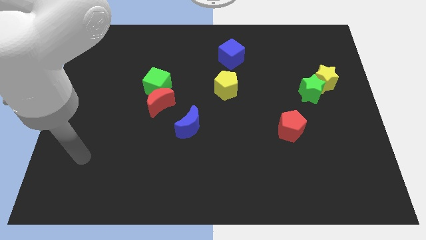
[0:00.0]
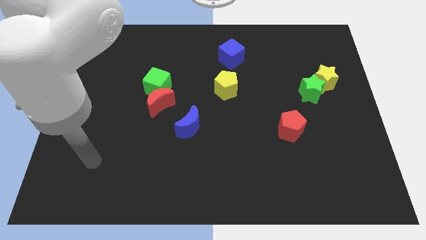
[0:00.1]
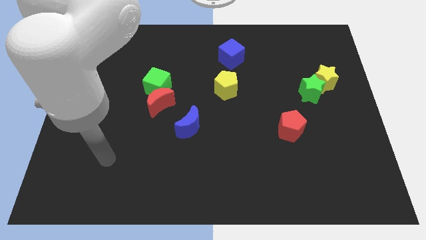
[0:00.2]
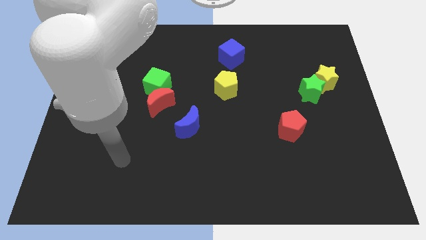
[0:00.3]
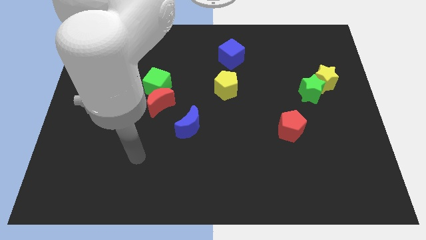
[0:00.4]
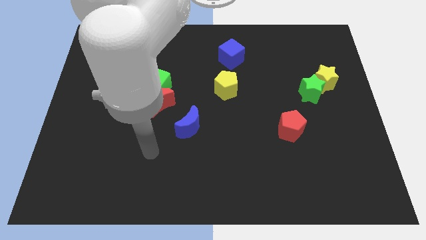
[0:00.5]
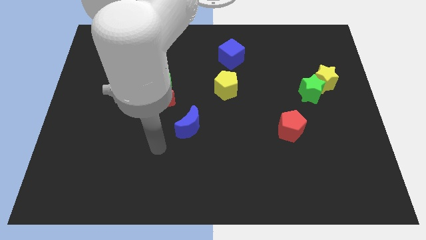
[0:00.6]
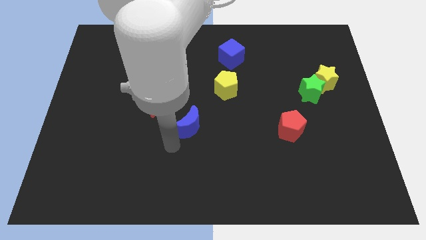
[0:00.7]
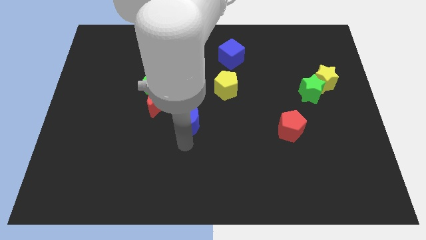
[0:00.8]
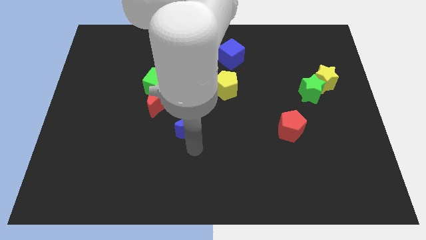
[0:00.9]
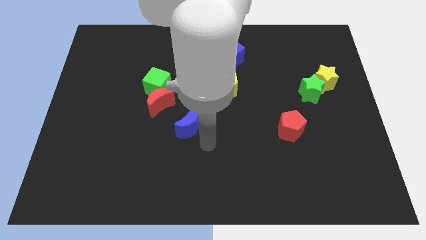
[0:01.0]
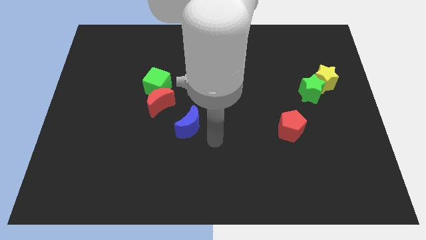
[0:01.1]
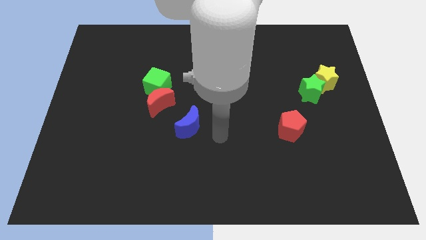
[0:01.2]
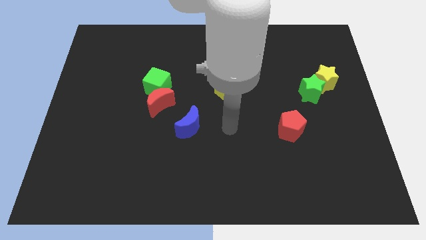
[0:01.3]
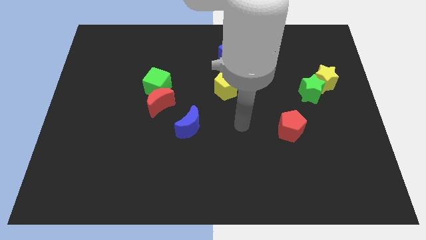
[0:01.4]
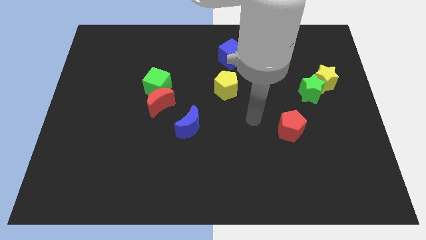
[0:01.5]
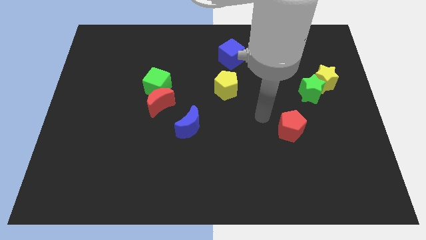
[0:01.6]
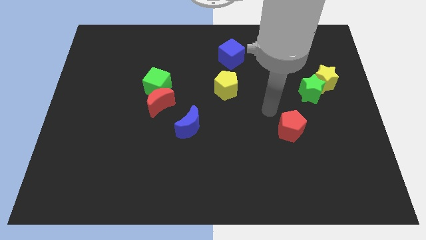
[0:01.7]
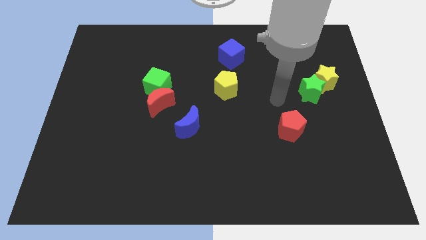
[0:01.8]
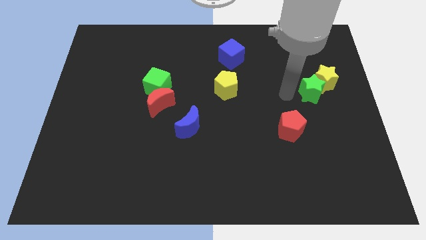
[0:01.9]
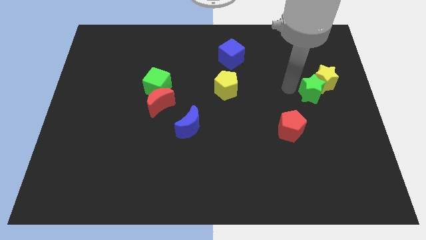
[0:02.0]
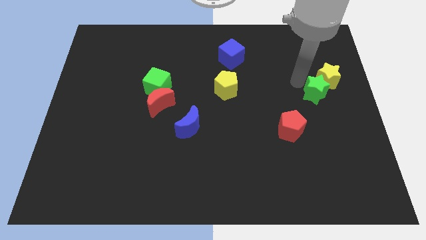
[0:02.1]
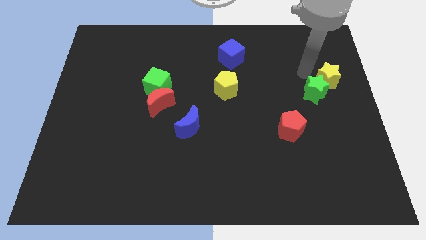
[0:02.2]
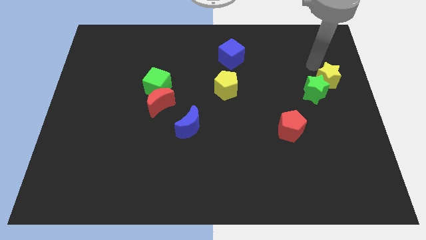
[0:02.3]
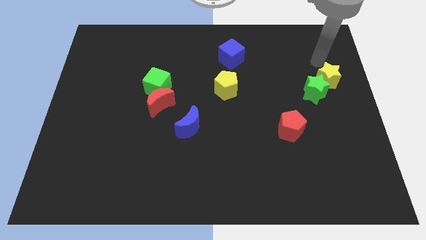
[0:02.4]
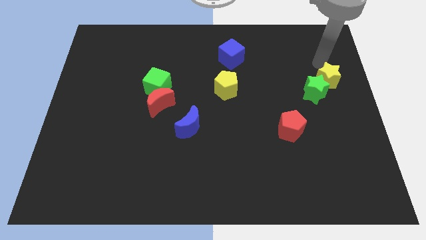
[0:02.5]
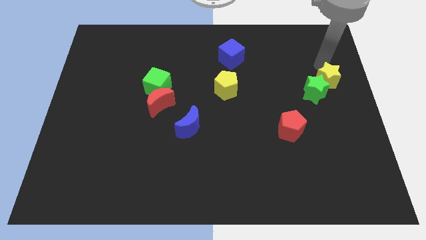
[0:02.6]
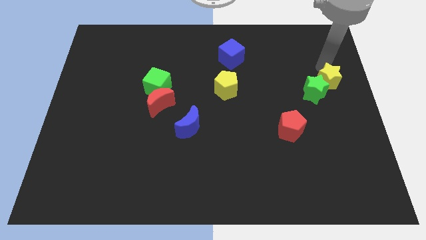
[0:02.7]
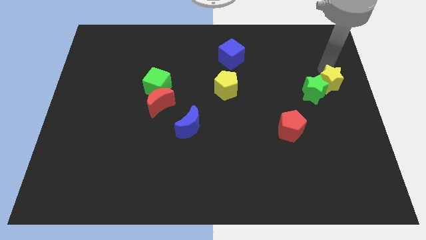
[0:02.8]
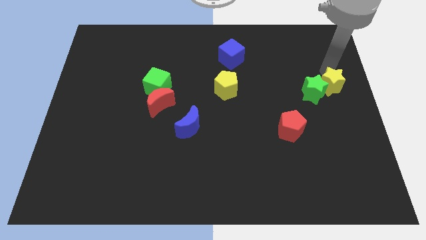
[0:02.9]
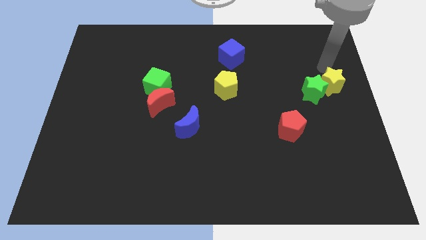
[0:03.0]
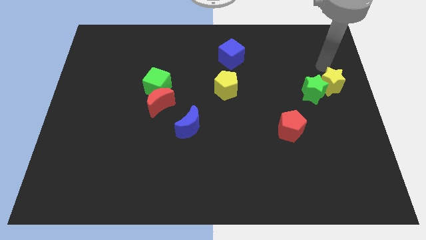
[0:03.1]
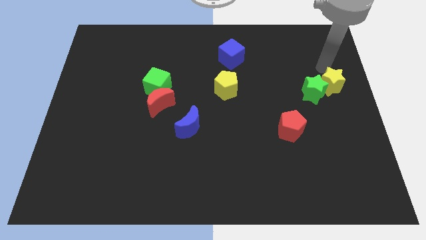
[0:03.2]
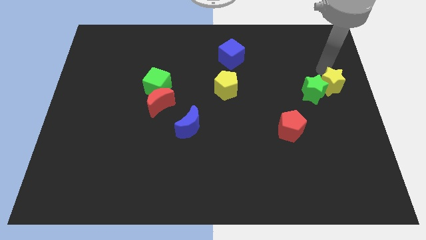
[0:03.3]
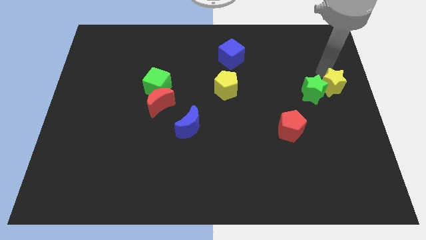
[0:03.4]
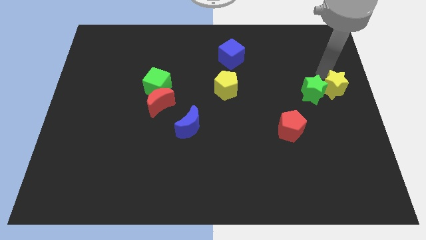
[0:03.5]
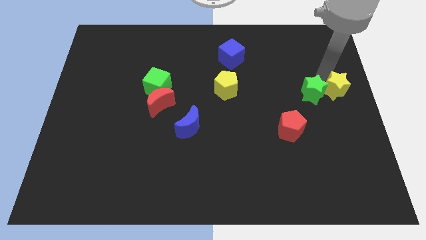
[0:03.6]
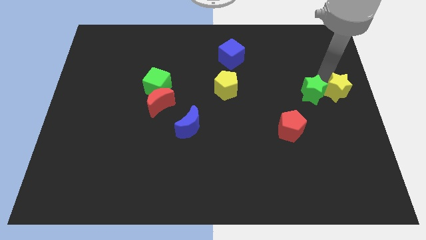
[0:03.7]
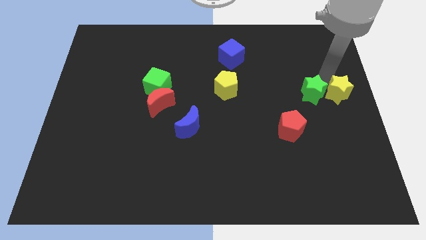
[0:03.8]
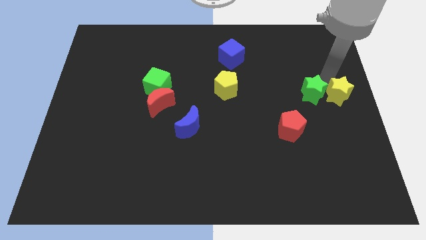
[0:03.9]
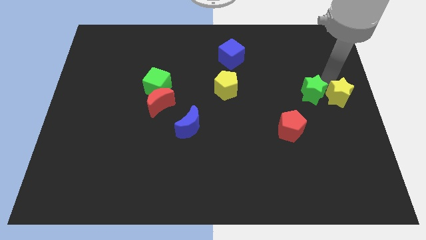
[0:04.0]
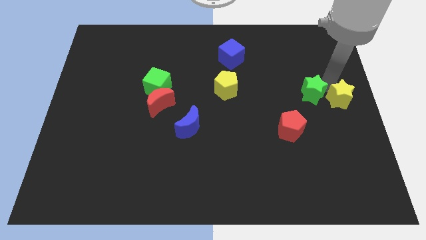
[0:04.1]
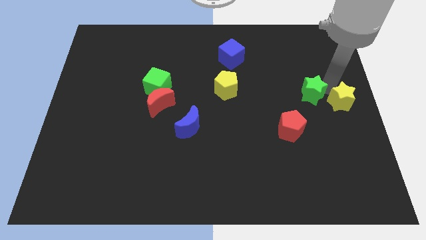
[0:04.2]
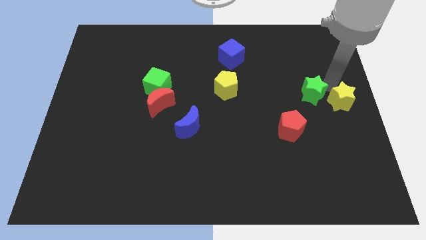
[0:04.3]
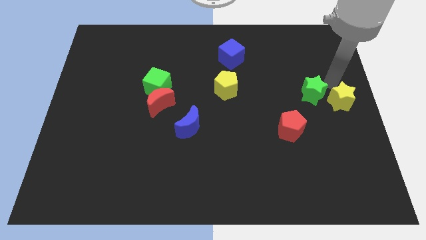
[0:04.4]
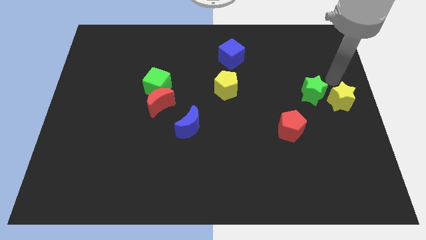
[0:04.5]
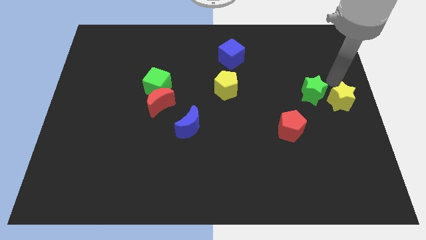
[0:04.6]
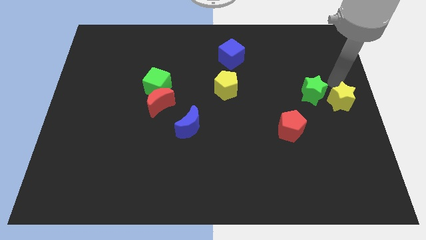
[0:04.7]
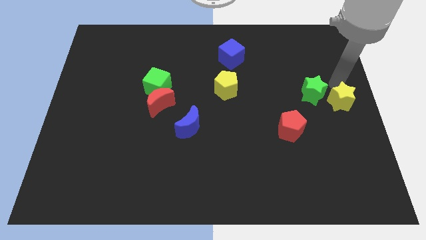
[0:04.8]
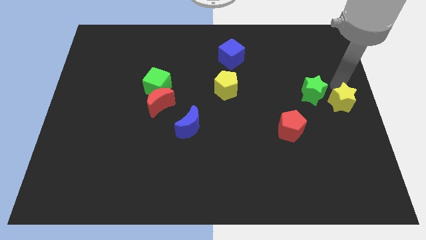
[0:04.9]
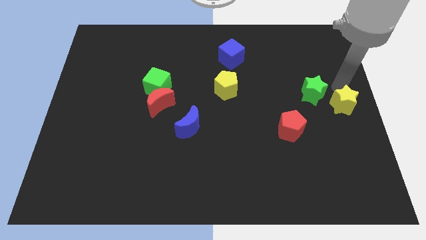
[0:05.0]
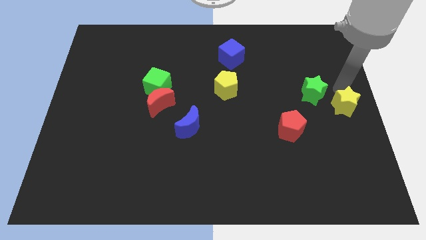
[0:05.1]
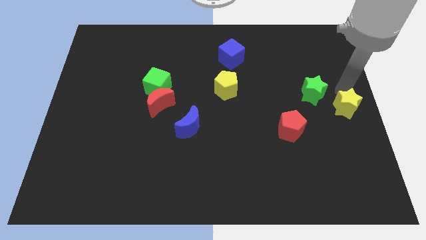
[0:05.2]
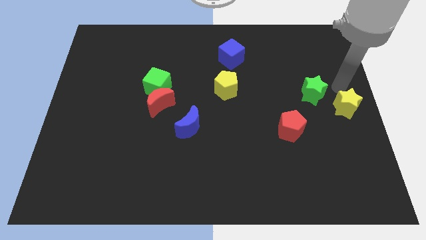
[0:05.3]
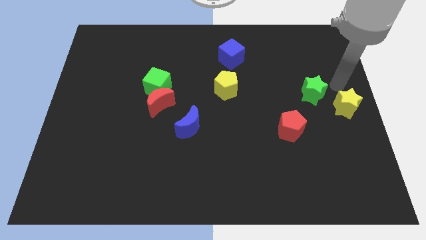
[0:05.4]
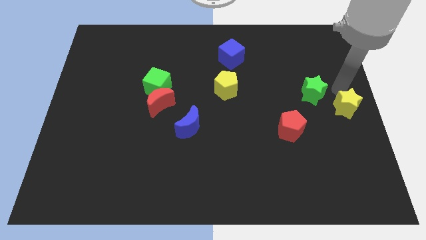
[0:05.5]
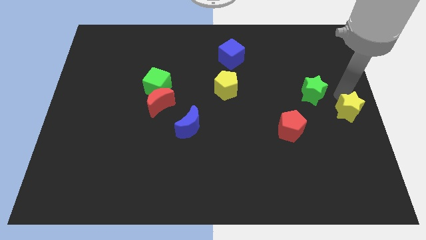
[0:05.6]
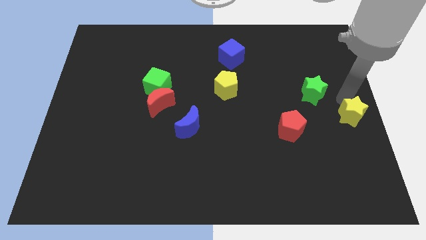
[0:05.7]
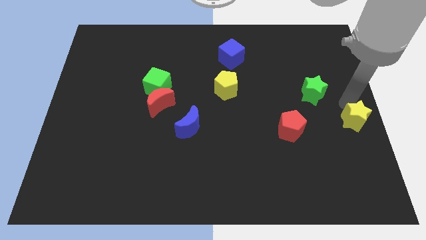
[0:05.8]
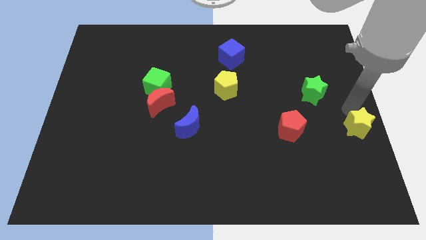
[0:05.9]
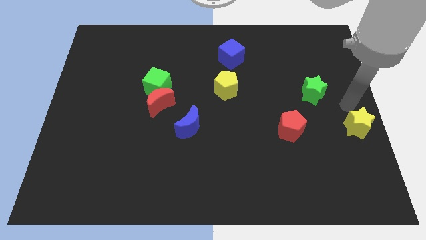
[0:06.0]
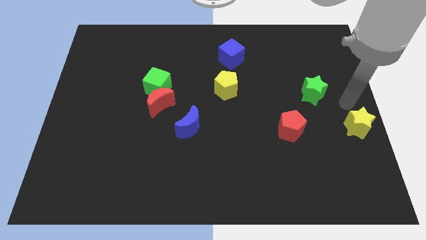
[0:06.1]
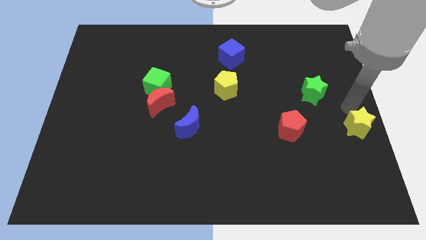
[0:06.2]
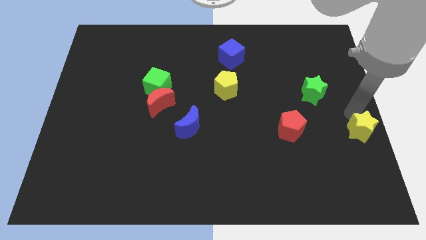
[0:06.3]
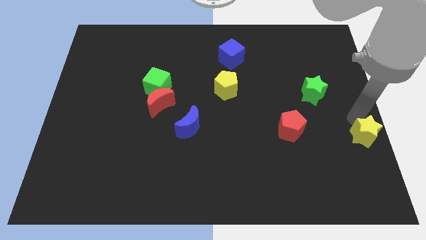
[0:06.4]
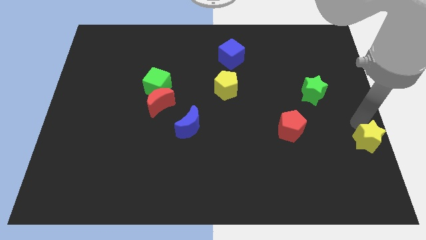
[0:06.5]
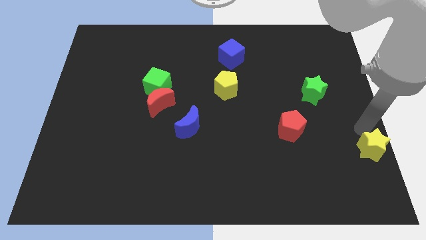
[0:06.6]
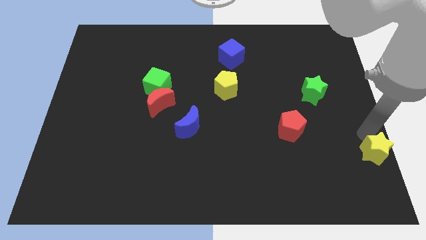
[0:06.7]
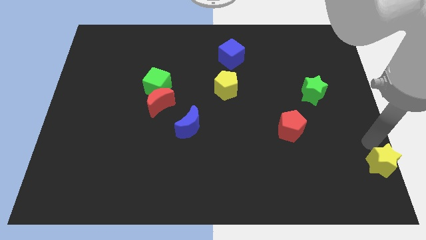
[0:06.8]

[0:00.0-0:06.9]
push the yellow star to the bottom right

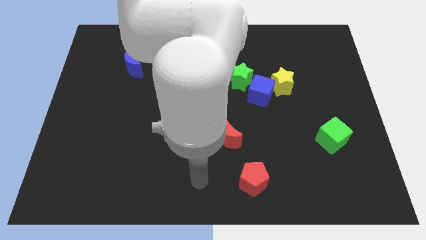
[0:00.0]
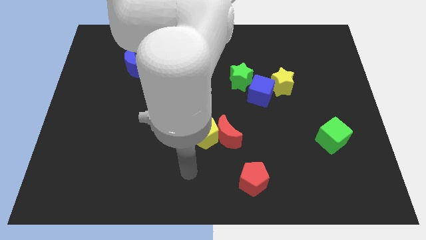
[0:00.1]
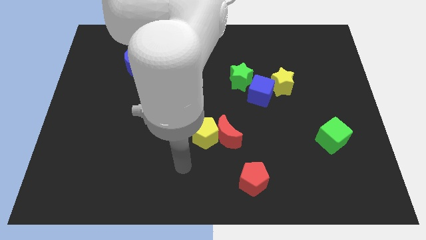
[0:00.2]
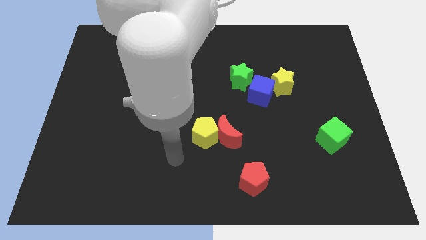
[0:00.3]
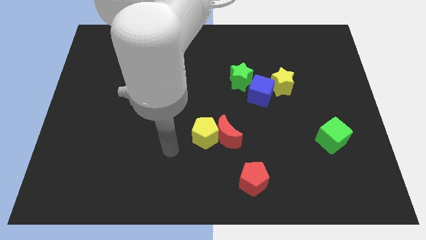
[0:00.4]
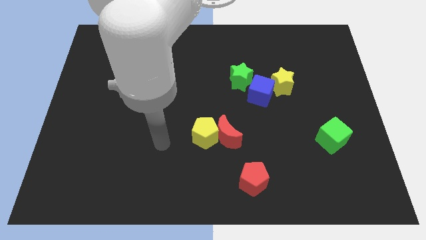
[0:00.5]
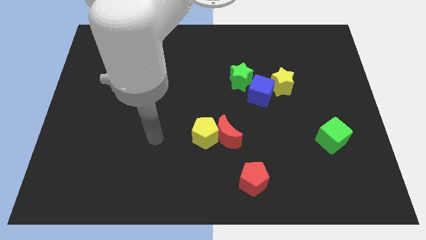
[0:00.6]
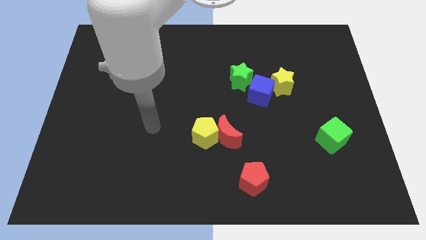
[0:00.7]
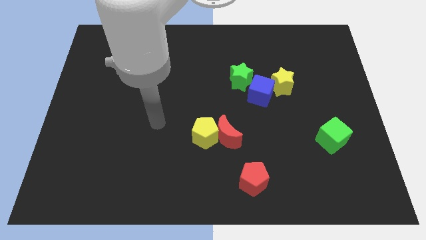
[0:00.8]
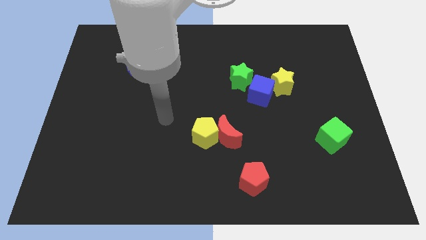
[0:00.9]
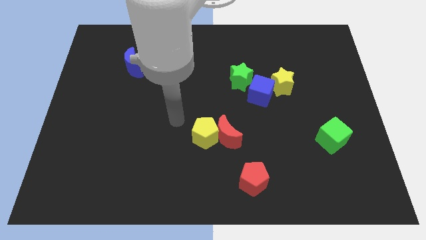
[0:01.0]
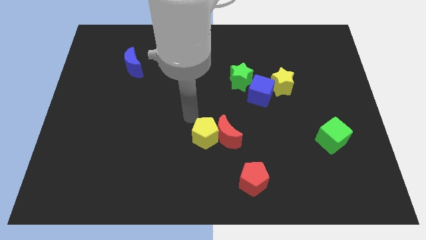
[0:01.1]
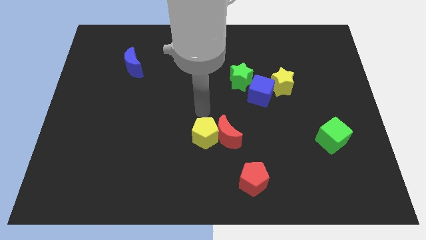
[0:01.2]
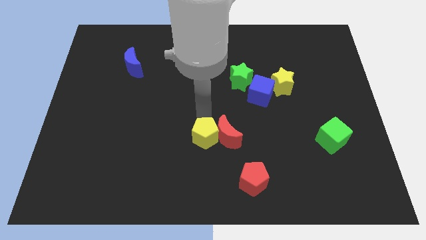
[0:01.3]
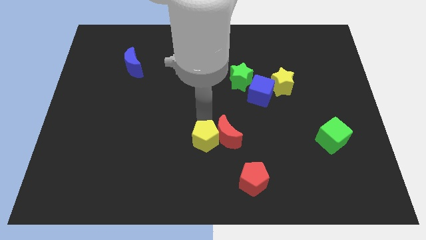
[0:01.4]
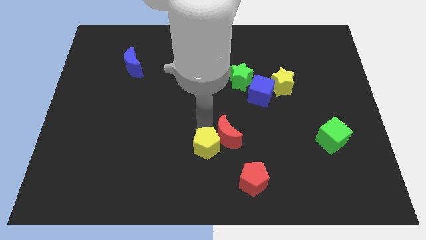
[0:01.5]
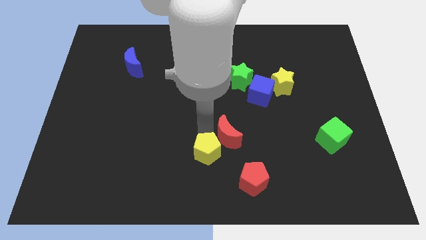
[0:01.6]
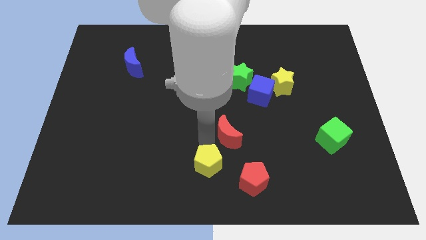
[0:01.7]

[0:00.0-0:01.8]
slide the yellow pentagon to the bottom
